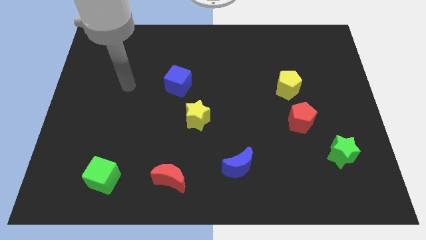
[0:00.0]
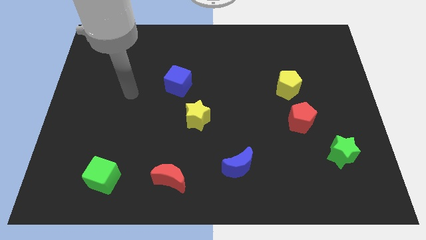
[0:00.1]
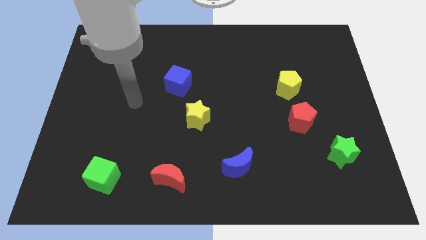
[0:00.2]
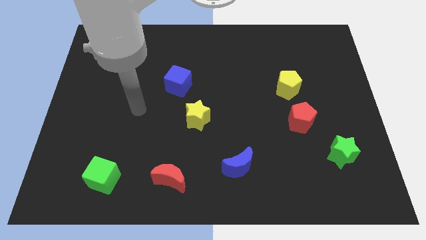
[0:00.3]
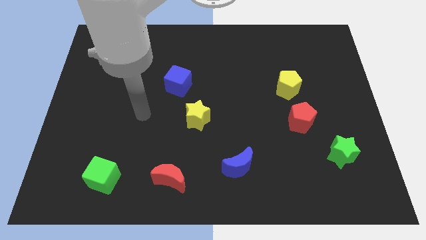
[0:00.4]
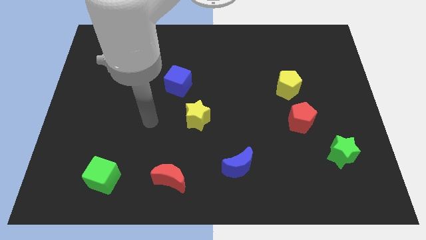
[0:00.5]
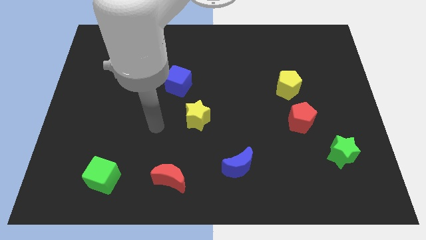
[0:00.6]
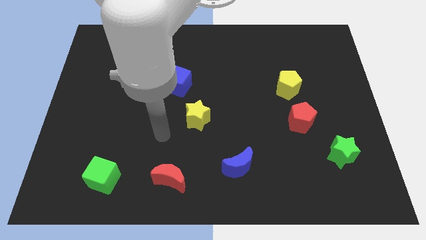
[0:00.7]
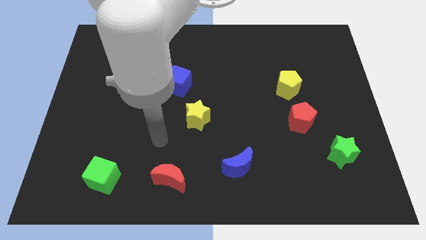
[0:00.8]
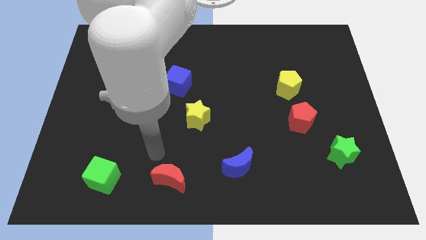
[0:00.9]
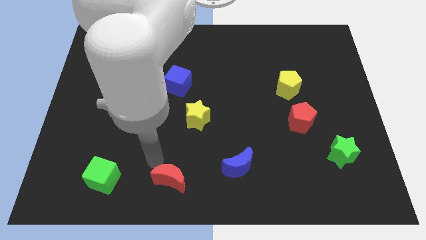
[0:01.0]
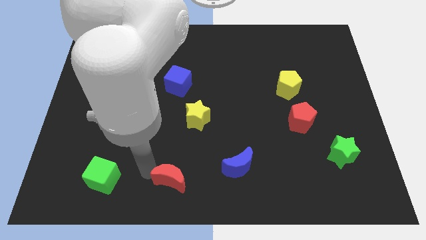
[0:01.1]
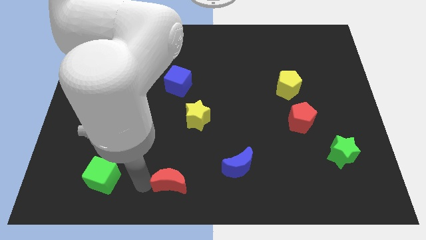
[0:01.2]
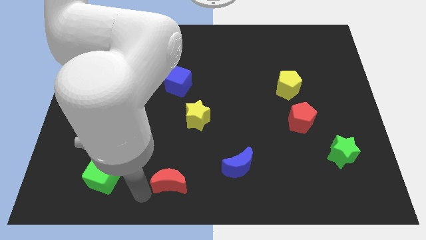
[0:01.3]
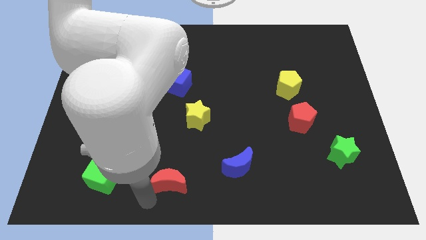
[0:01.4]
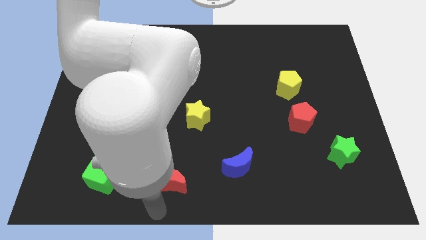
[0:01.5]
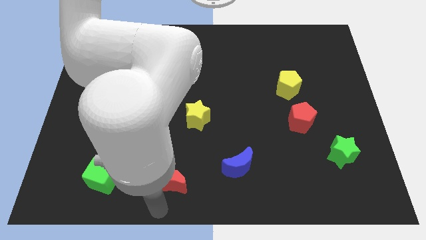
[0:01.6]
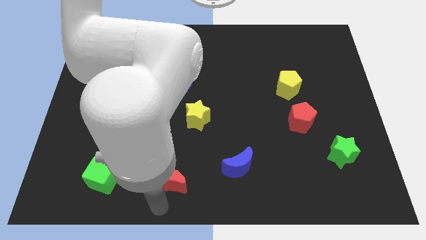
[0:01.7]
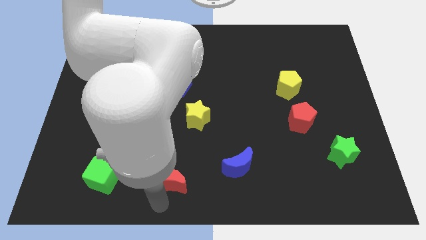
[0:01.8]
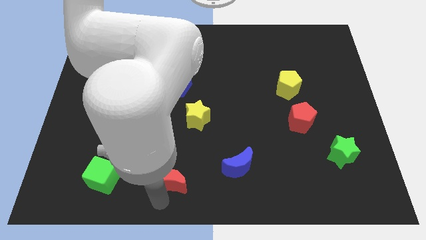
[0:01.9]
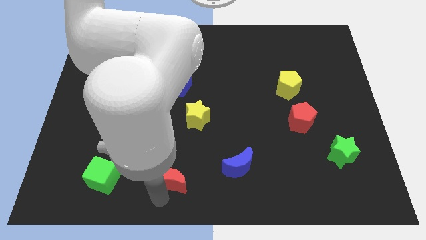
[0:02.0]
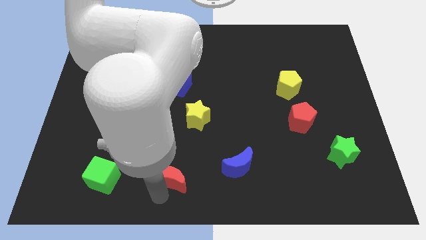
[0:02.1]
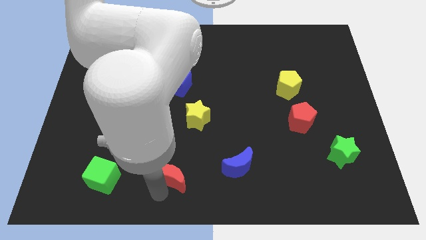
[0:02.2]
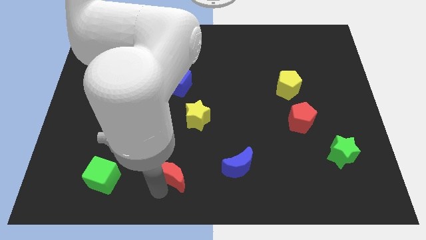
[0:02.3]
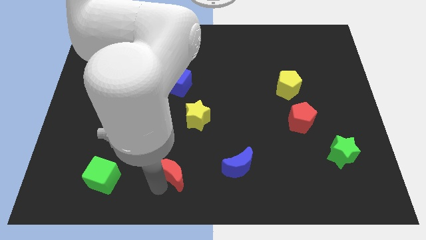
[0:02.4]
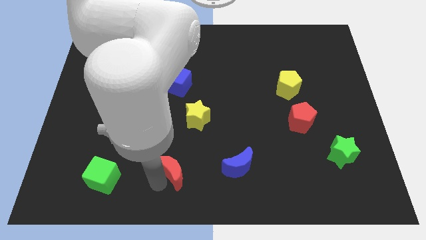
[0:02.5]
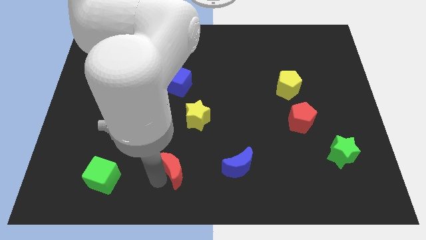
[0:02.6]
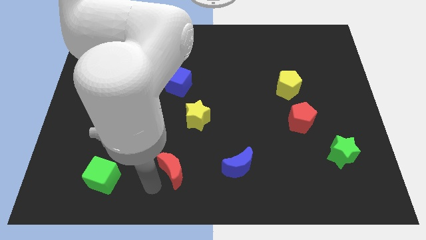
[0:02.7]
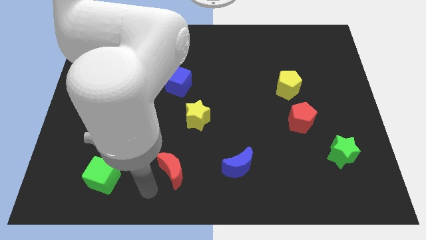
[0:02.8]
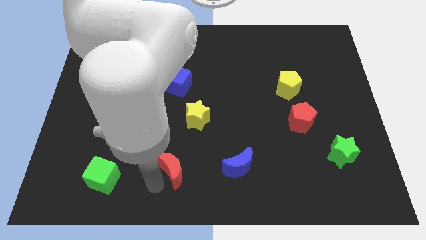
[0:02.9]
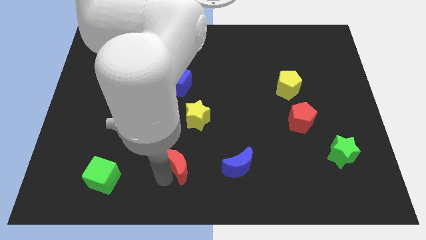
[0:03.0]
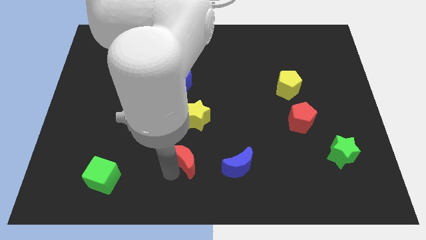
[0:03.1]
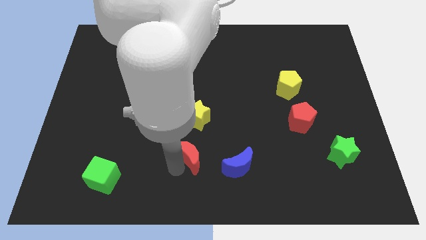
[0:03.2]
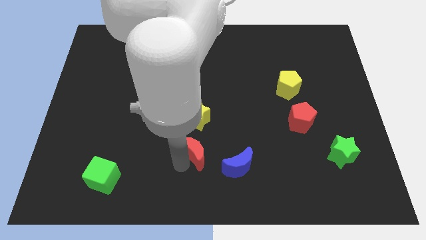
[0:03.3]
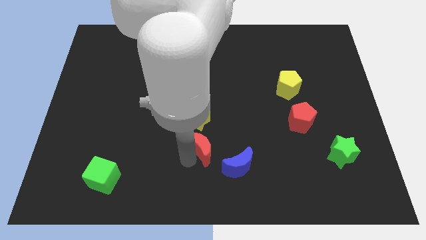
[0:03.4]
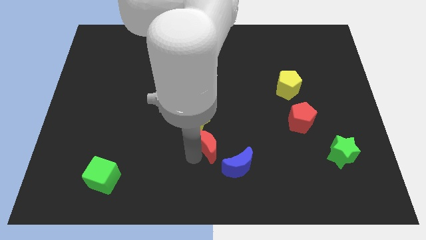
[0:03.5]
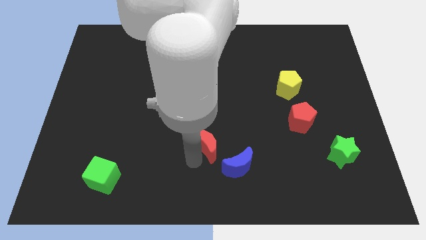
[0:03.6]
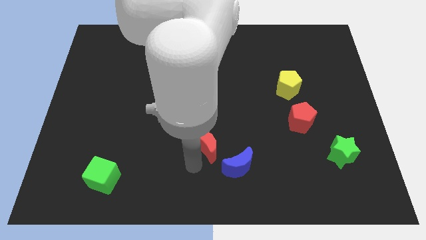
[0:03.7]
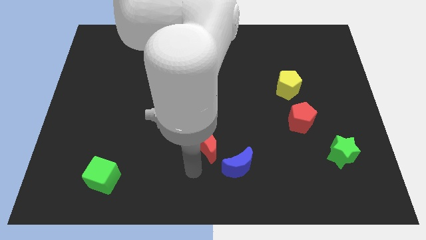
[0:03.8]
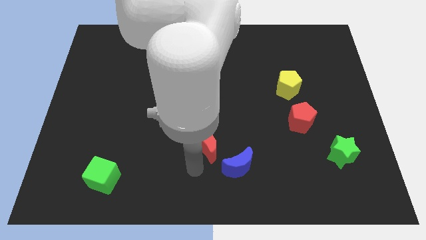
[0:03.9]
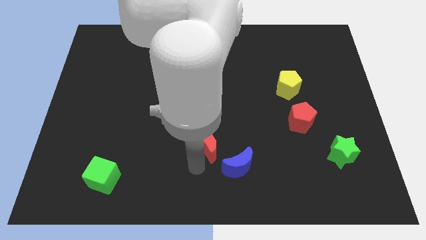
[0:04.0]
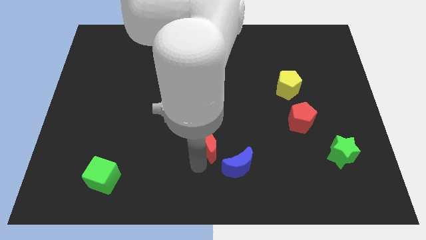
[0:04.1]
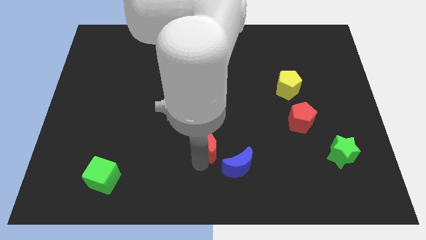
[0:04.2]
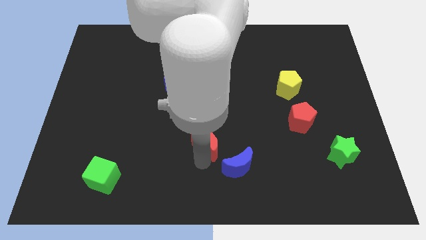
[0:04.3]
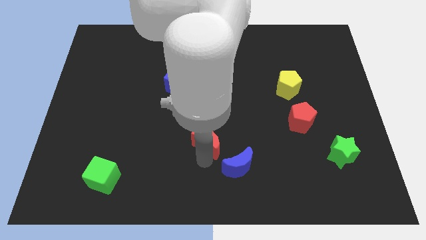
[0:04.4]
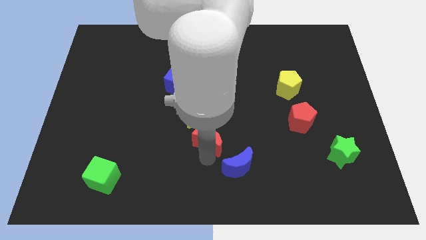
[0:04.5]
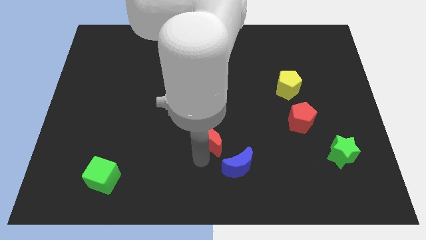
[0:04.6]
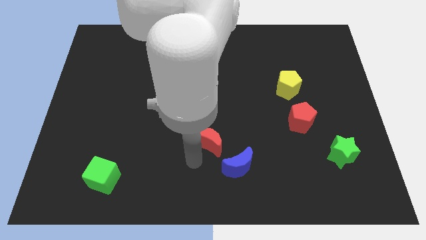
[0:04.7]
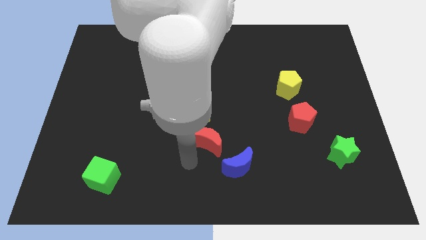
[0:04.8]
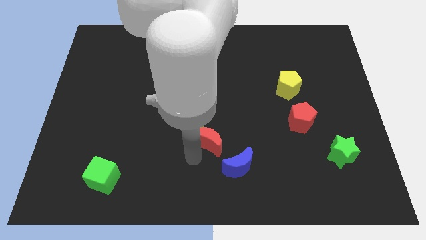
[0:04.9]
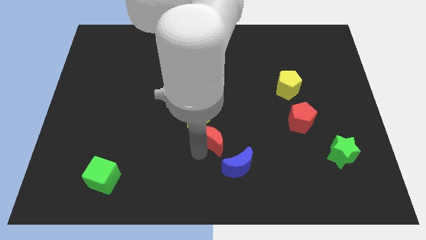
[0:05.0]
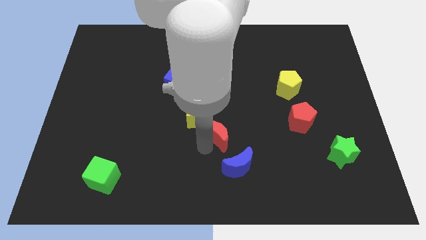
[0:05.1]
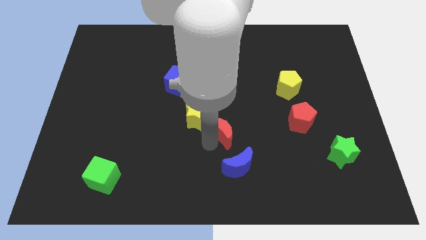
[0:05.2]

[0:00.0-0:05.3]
slide the red moon to the right side of the yellow star

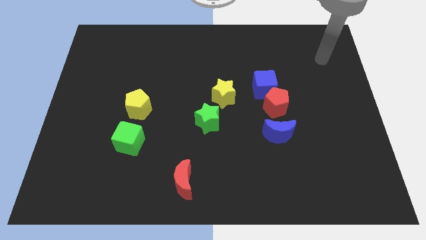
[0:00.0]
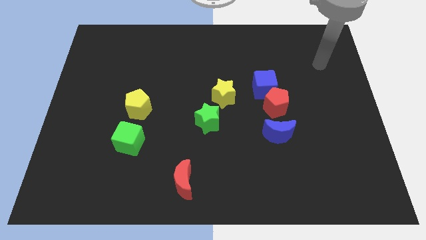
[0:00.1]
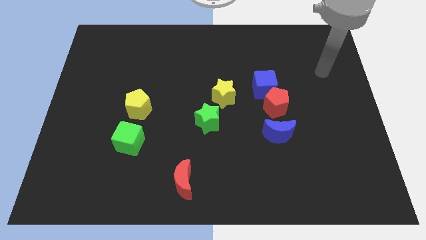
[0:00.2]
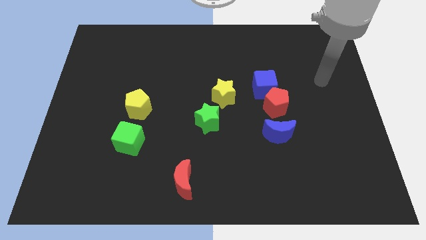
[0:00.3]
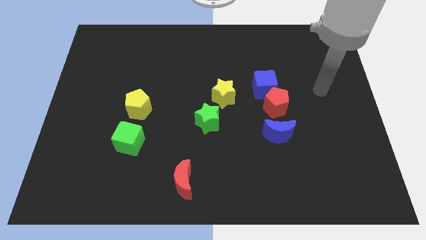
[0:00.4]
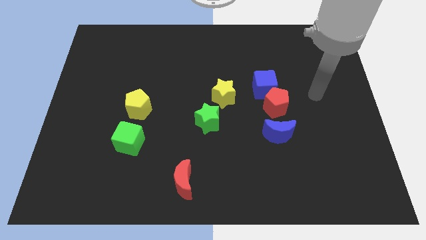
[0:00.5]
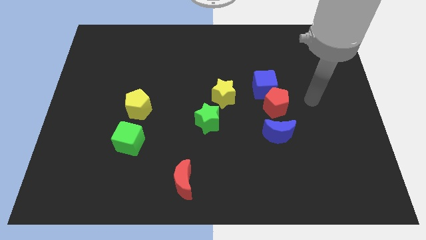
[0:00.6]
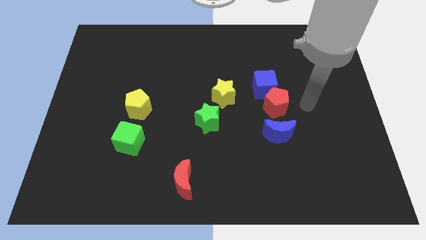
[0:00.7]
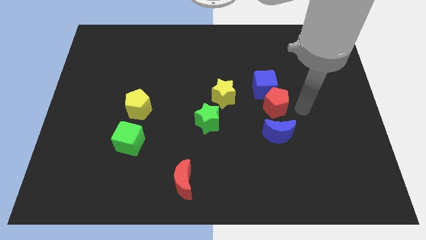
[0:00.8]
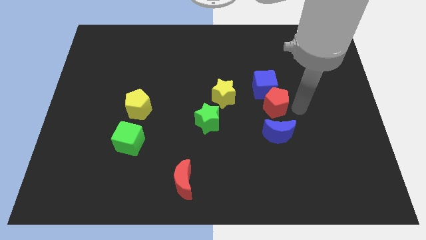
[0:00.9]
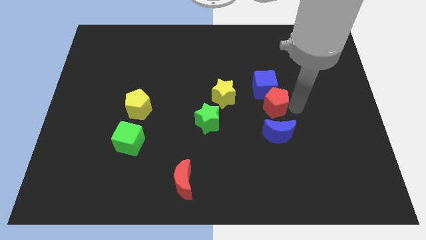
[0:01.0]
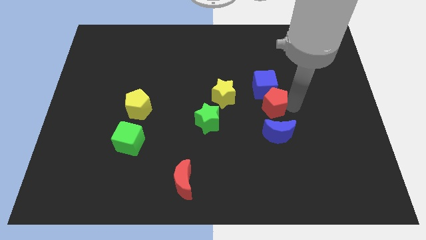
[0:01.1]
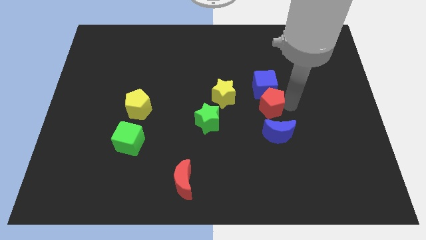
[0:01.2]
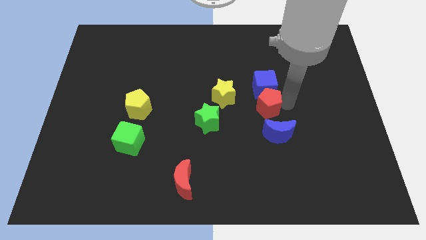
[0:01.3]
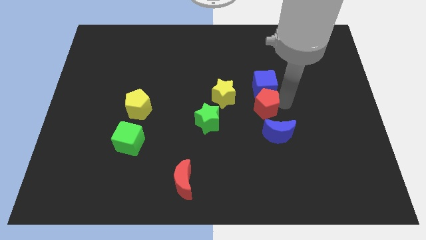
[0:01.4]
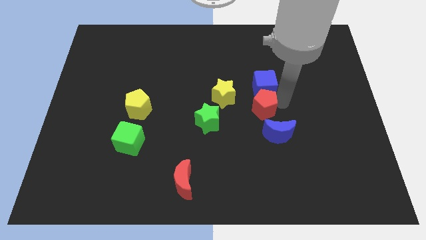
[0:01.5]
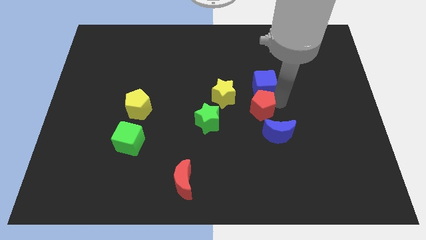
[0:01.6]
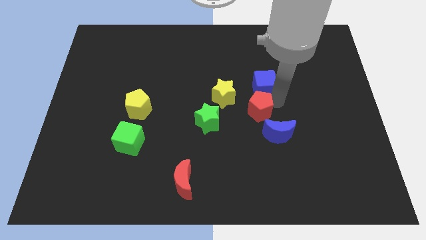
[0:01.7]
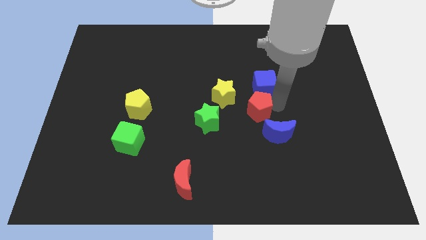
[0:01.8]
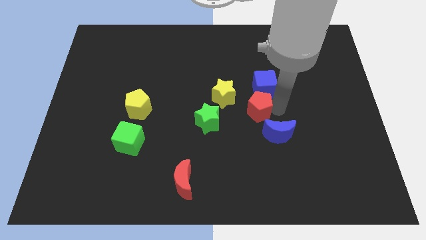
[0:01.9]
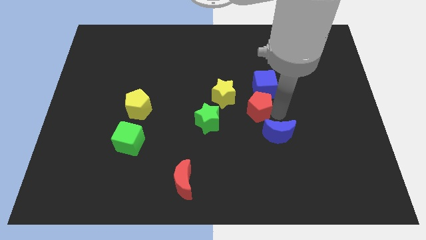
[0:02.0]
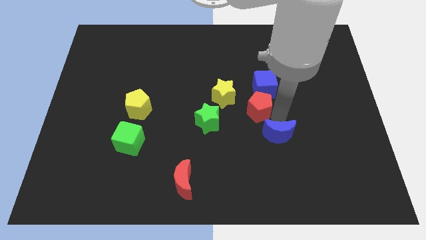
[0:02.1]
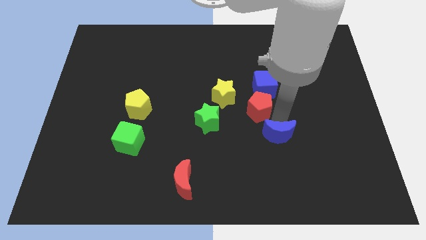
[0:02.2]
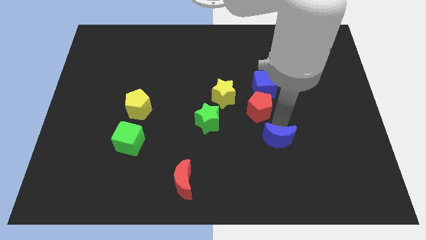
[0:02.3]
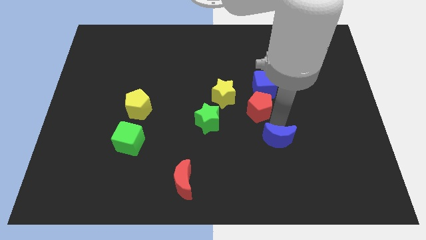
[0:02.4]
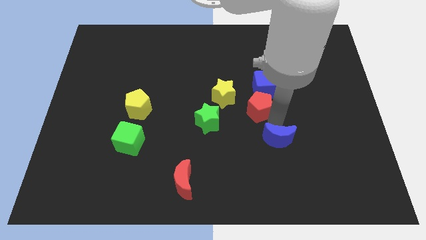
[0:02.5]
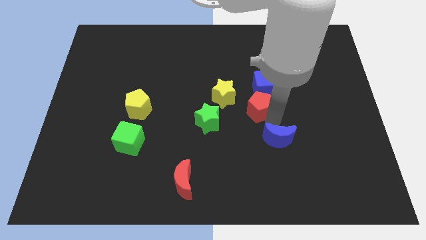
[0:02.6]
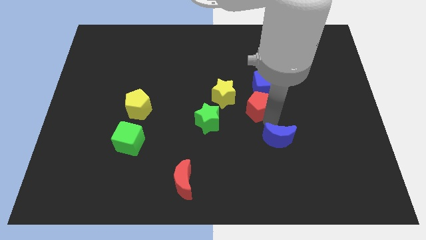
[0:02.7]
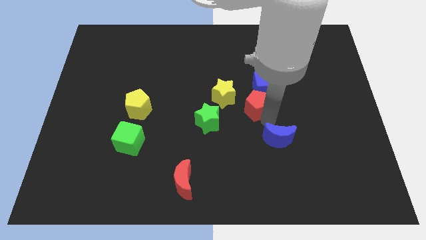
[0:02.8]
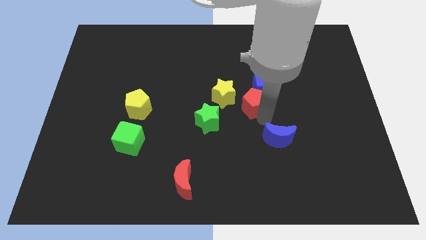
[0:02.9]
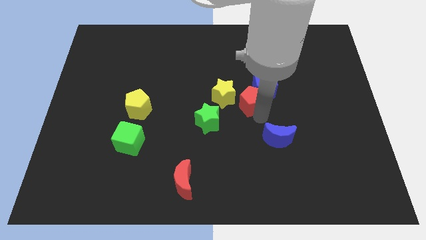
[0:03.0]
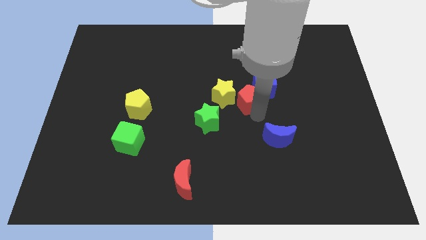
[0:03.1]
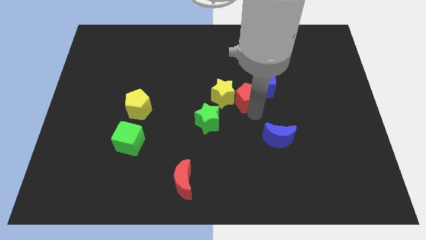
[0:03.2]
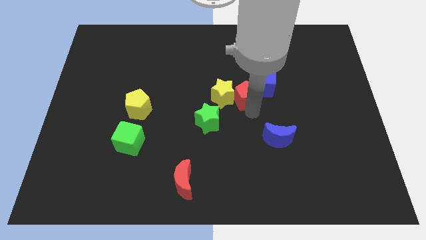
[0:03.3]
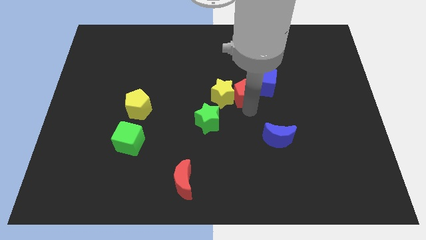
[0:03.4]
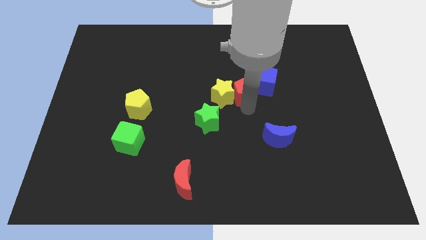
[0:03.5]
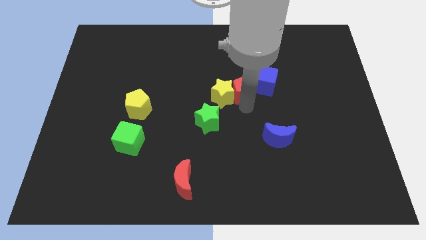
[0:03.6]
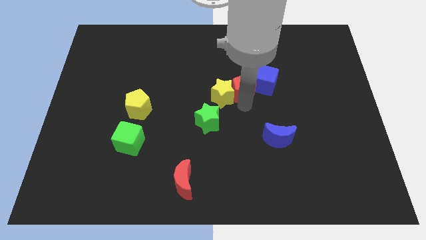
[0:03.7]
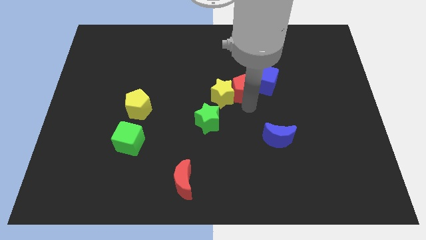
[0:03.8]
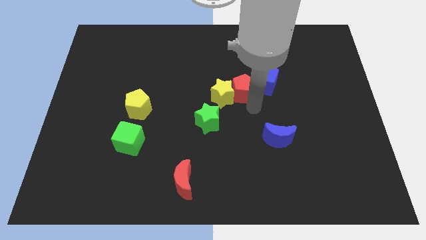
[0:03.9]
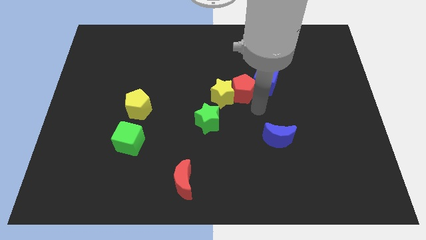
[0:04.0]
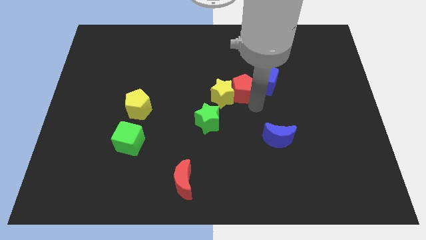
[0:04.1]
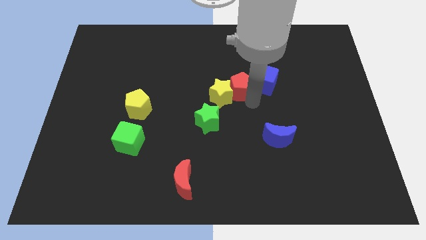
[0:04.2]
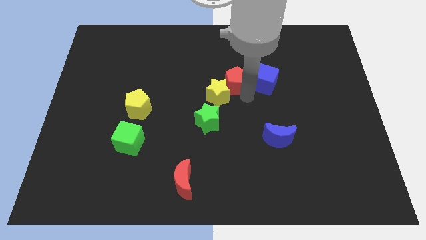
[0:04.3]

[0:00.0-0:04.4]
push the red pentagon to the top of the yellow star
